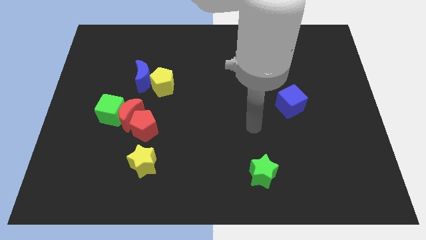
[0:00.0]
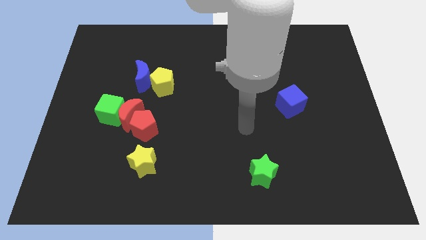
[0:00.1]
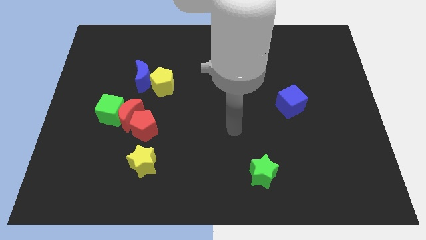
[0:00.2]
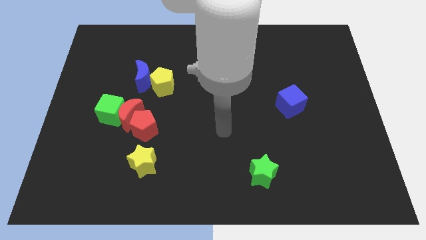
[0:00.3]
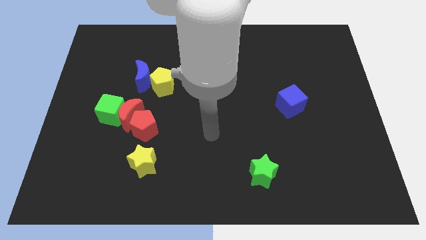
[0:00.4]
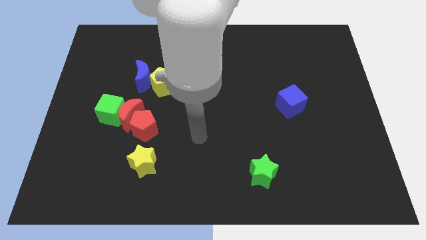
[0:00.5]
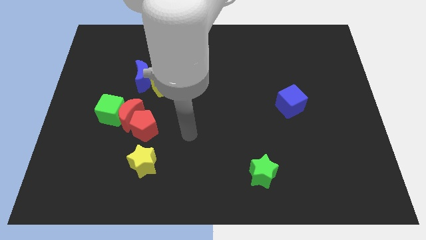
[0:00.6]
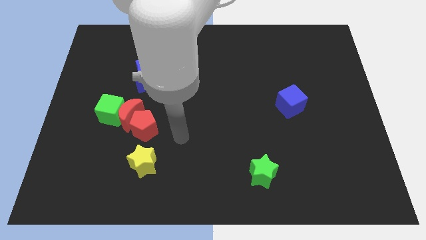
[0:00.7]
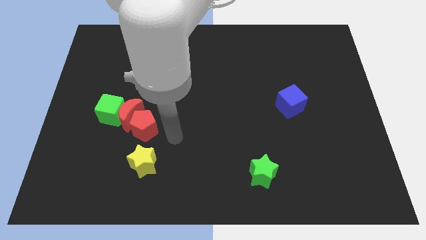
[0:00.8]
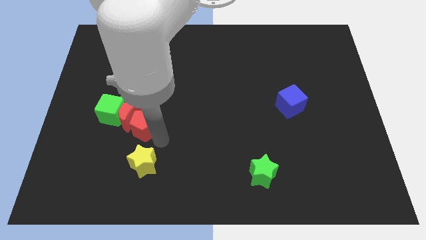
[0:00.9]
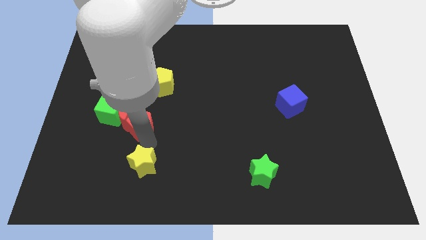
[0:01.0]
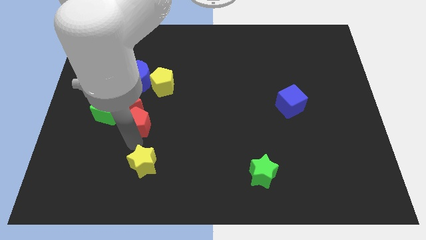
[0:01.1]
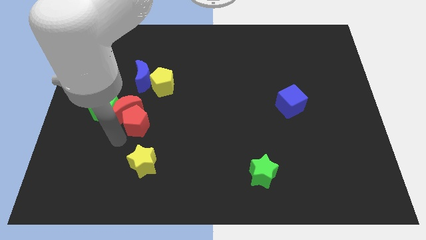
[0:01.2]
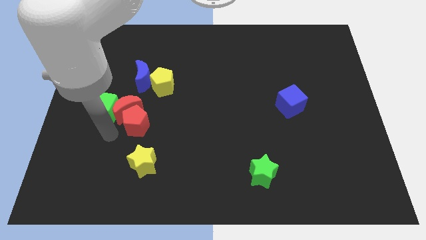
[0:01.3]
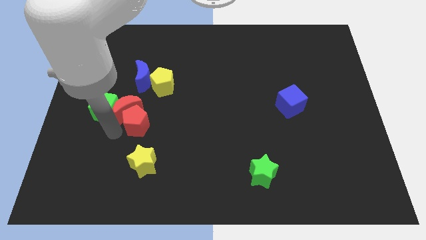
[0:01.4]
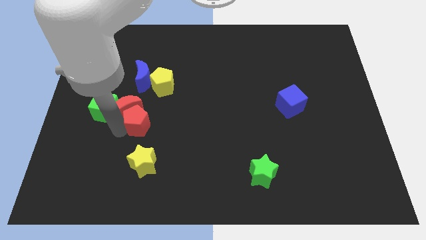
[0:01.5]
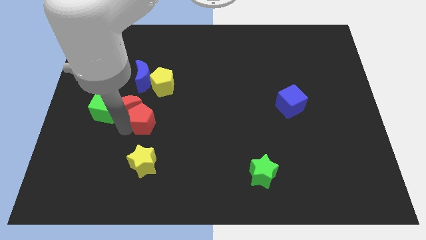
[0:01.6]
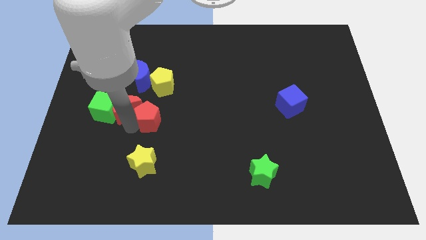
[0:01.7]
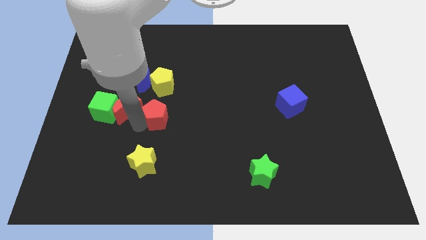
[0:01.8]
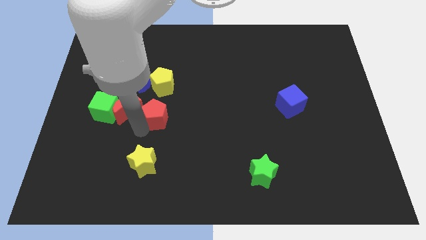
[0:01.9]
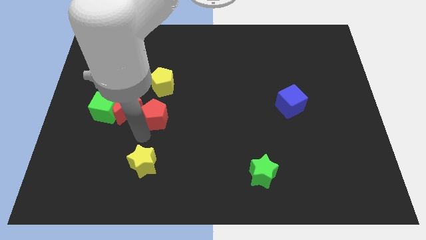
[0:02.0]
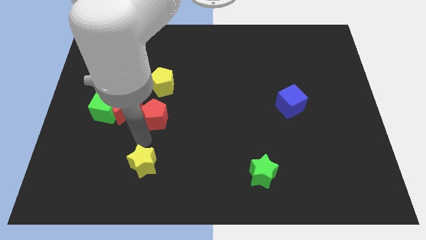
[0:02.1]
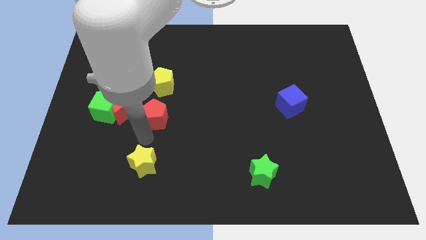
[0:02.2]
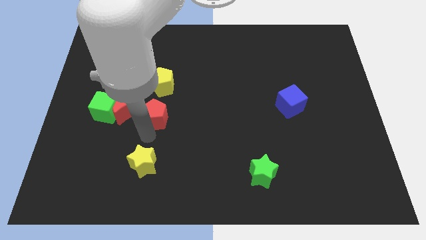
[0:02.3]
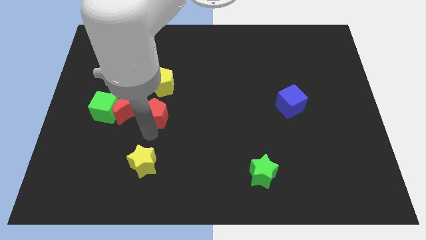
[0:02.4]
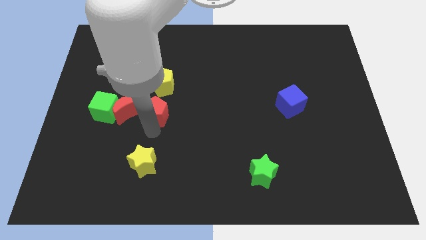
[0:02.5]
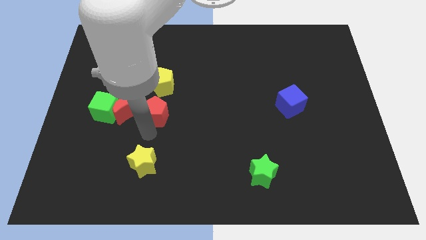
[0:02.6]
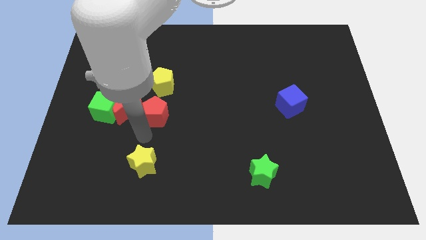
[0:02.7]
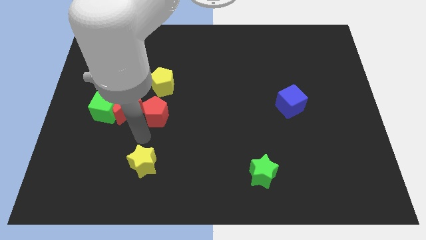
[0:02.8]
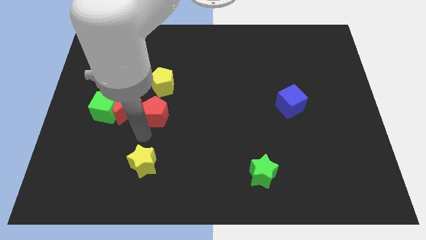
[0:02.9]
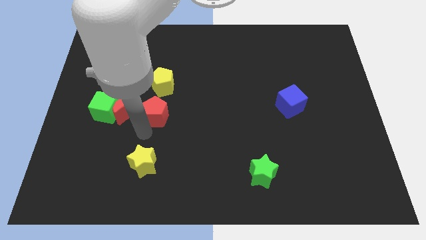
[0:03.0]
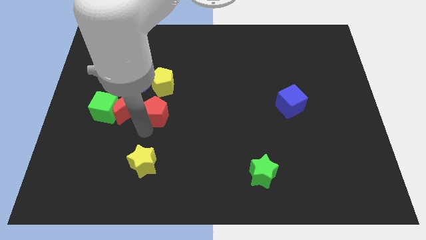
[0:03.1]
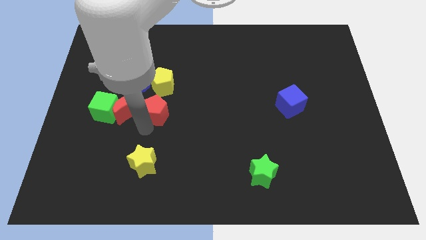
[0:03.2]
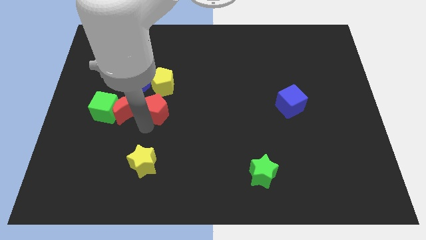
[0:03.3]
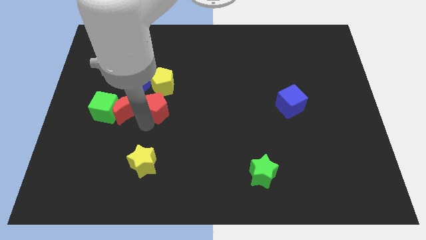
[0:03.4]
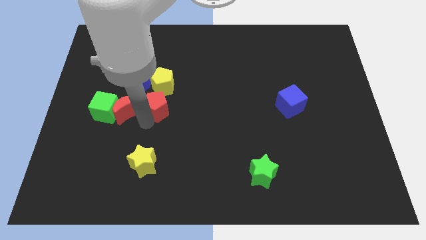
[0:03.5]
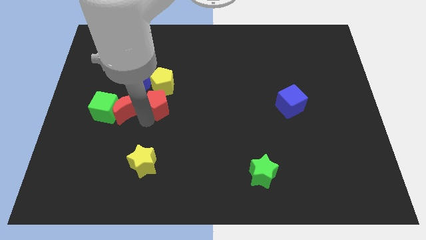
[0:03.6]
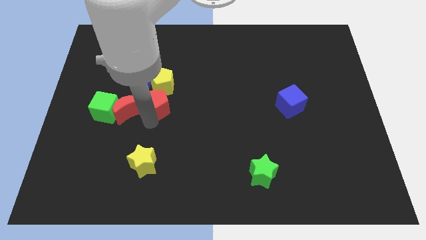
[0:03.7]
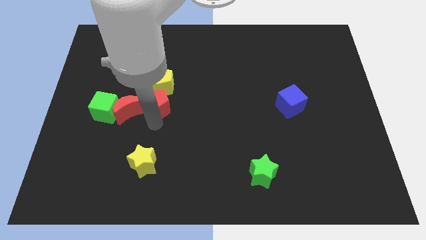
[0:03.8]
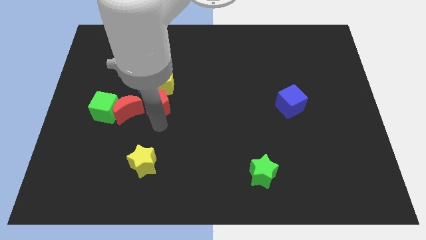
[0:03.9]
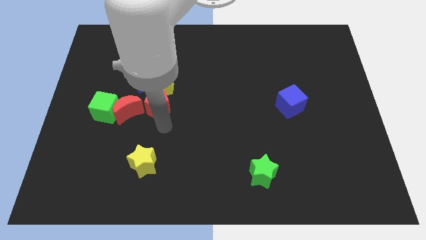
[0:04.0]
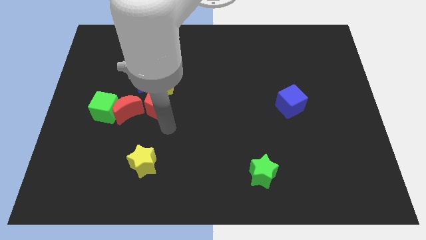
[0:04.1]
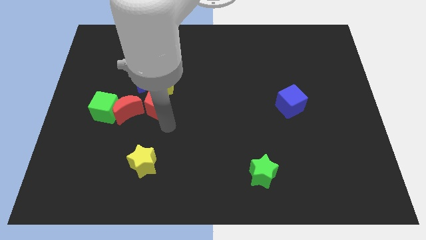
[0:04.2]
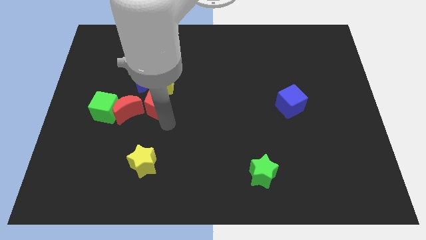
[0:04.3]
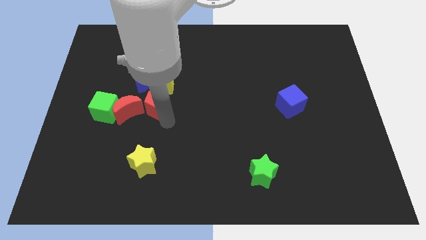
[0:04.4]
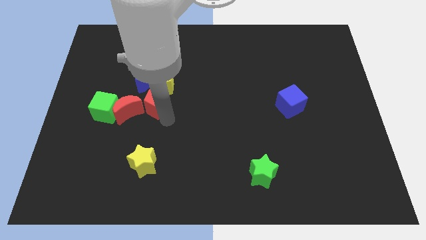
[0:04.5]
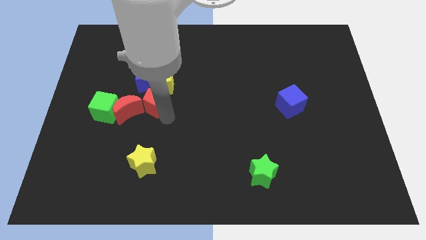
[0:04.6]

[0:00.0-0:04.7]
move the red pentagon up slightly

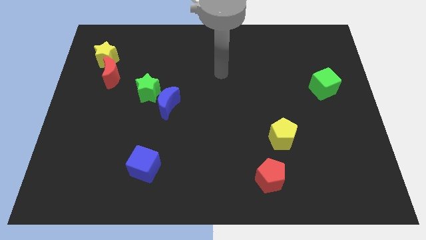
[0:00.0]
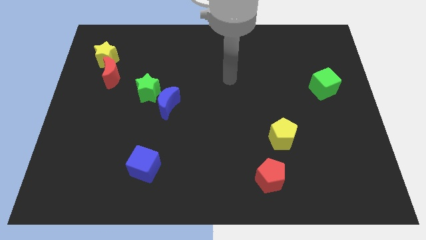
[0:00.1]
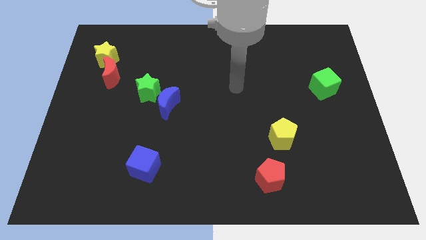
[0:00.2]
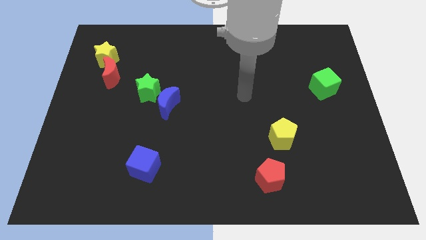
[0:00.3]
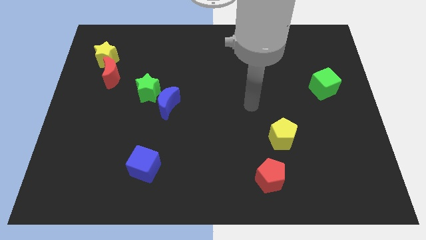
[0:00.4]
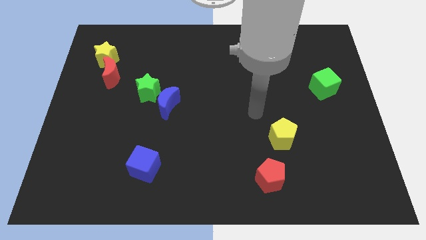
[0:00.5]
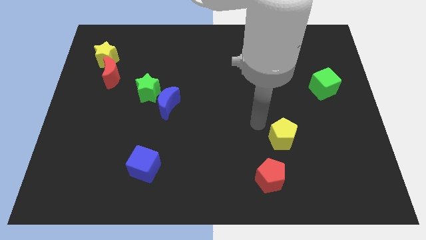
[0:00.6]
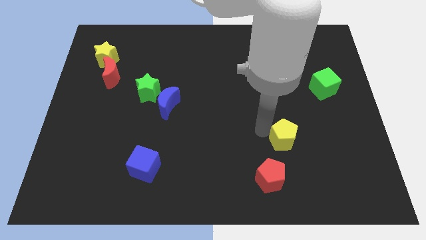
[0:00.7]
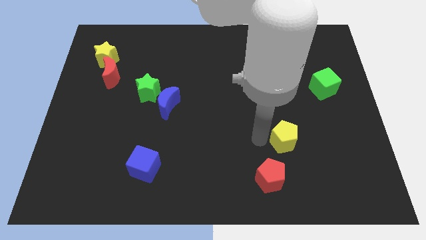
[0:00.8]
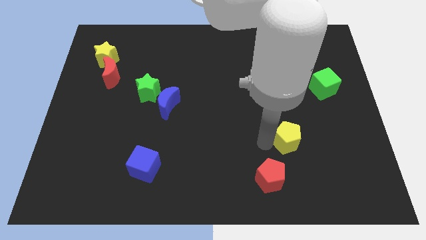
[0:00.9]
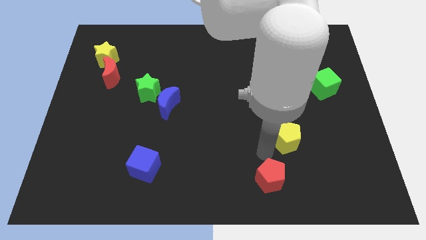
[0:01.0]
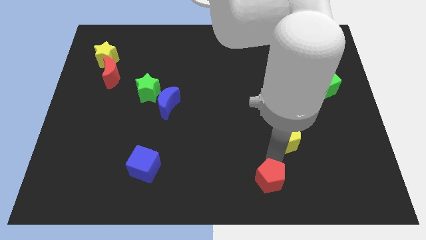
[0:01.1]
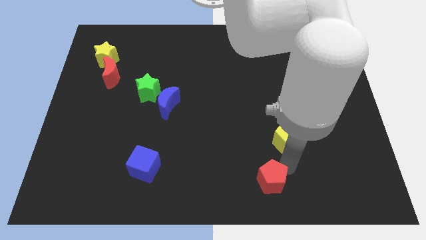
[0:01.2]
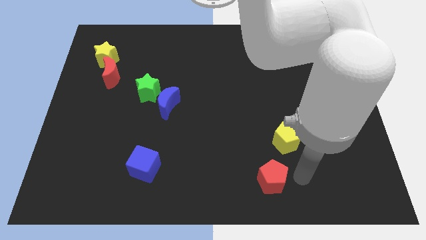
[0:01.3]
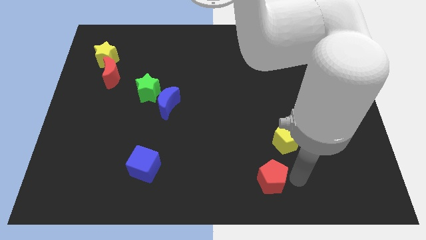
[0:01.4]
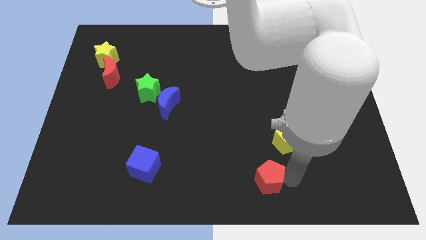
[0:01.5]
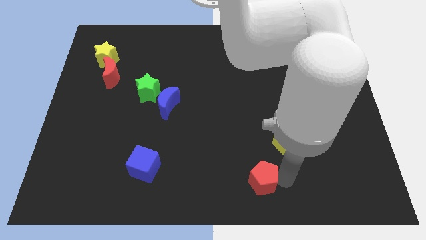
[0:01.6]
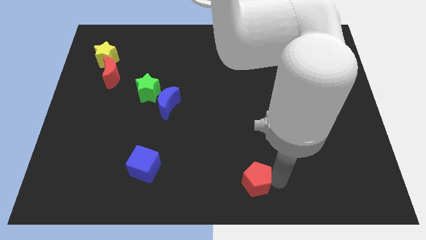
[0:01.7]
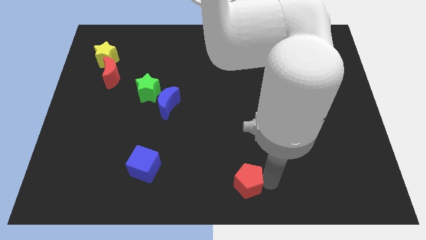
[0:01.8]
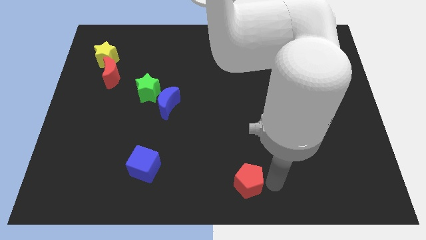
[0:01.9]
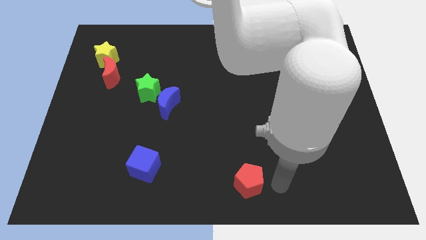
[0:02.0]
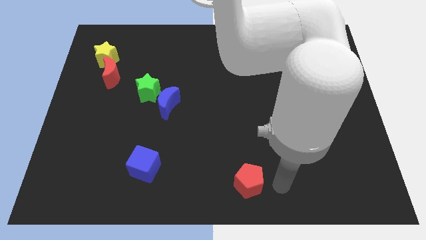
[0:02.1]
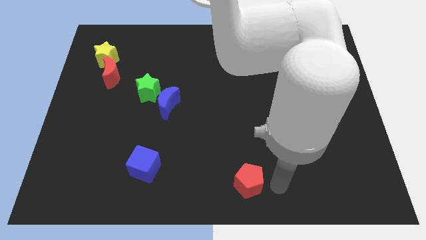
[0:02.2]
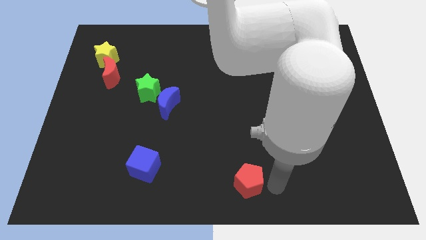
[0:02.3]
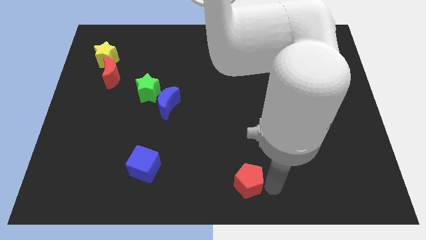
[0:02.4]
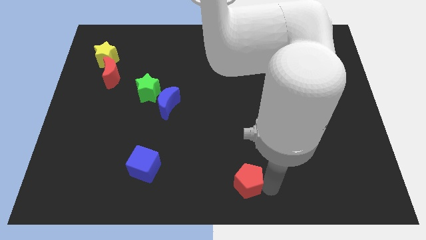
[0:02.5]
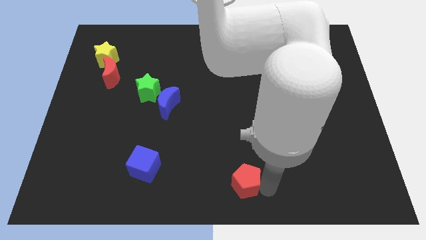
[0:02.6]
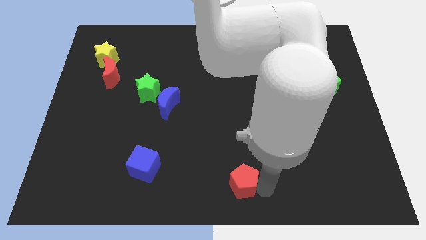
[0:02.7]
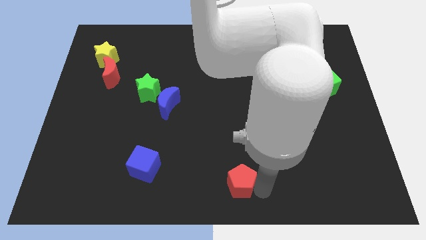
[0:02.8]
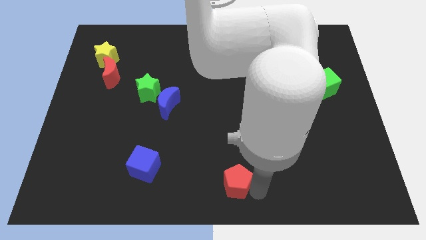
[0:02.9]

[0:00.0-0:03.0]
slightly move the red pentagon left

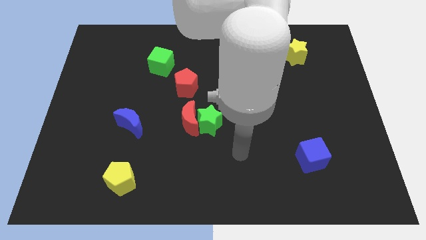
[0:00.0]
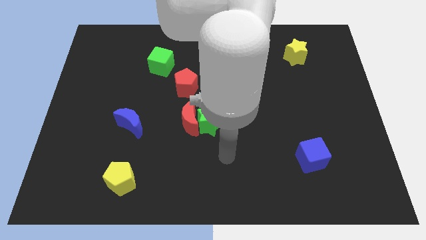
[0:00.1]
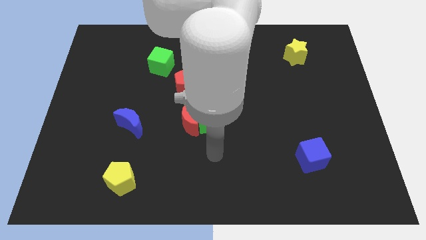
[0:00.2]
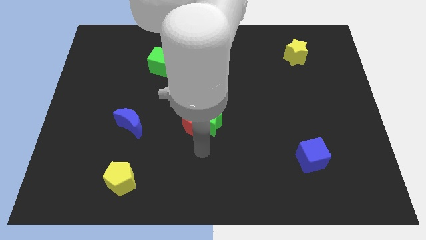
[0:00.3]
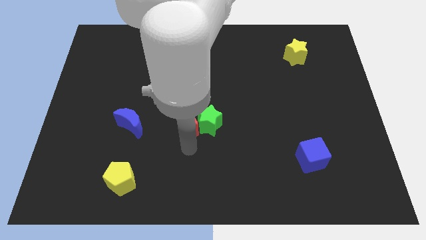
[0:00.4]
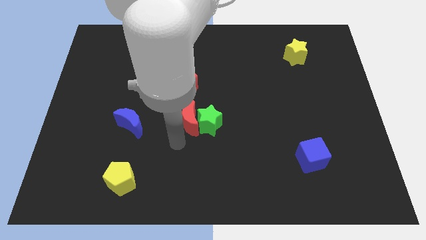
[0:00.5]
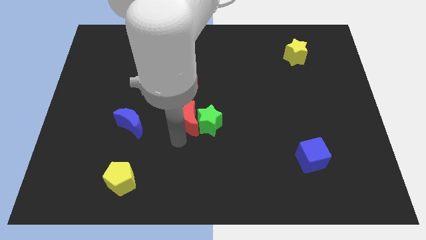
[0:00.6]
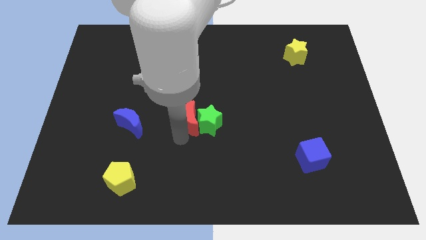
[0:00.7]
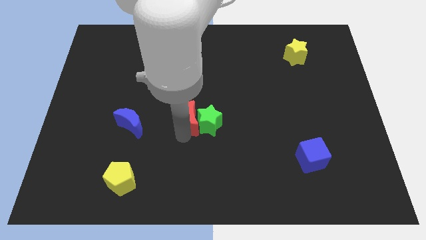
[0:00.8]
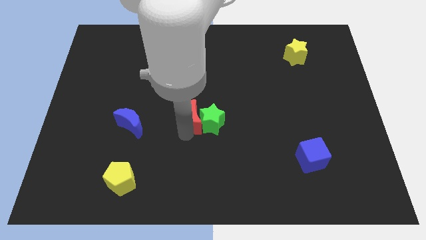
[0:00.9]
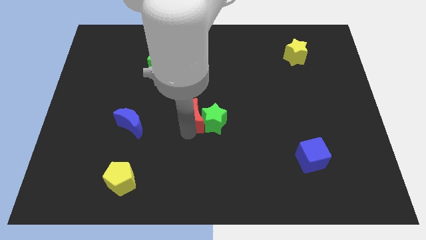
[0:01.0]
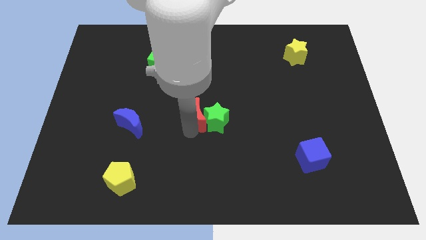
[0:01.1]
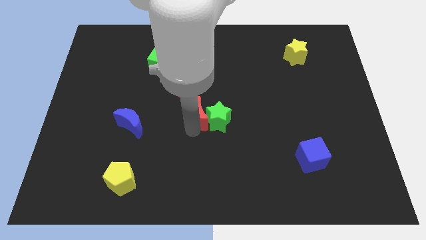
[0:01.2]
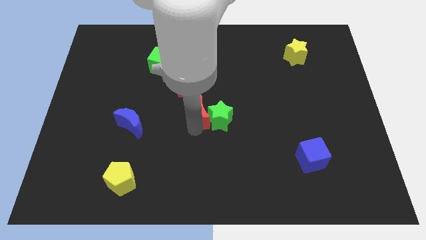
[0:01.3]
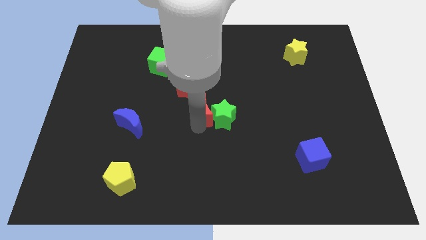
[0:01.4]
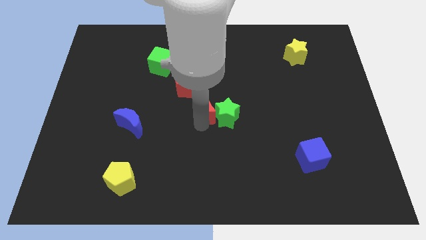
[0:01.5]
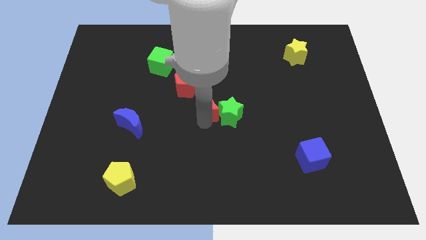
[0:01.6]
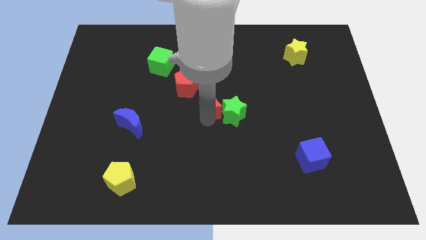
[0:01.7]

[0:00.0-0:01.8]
slide the red moon diagonally upwards and to the right somewhat
